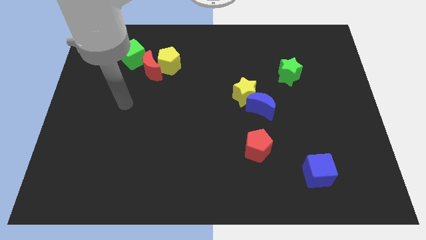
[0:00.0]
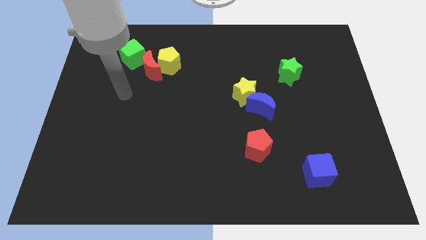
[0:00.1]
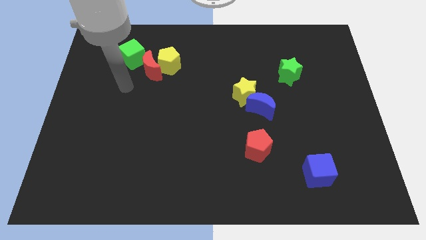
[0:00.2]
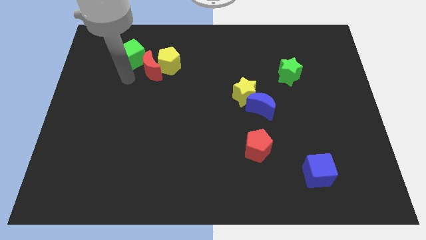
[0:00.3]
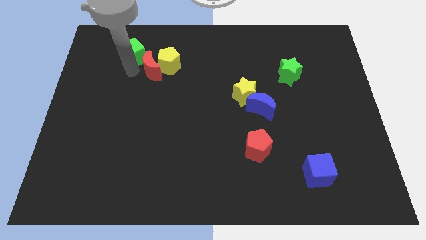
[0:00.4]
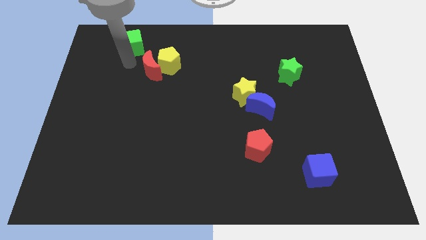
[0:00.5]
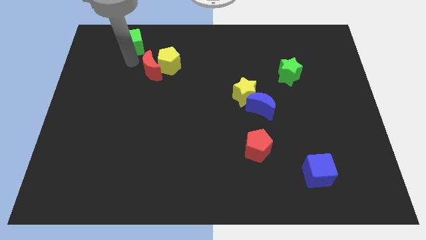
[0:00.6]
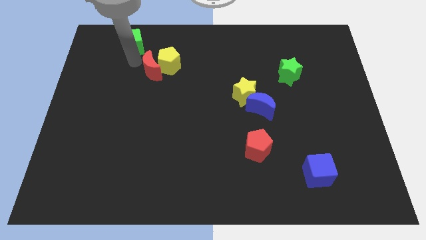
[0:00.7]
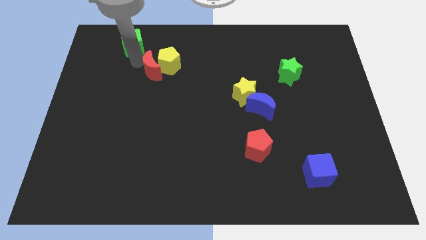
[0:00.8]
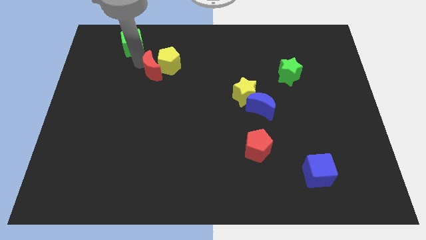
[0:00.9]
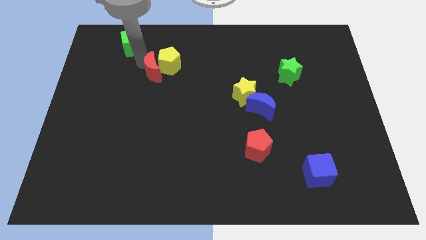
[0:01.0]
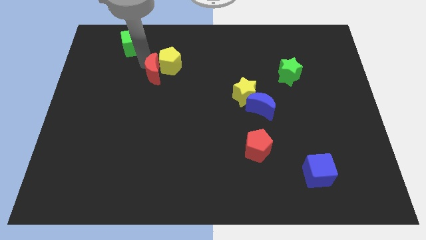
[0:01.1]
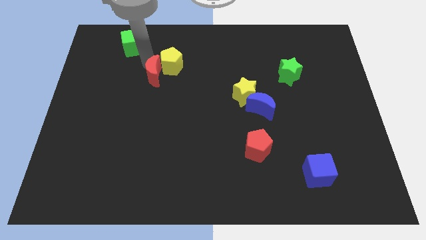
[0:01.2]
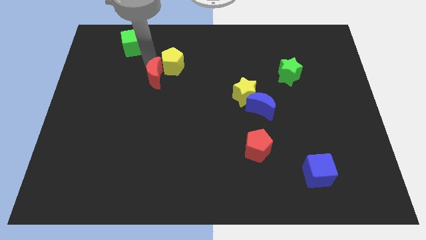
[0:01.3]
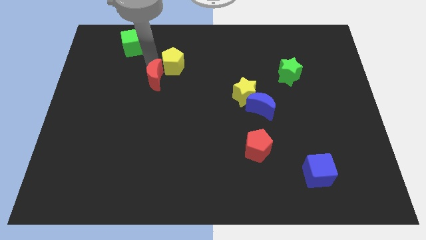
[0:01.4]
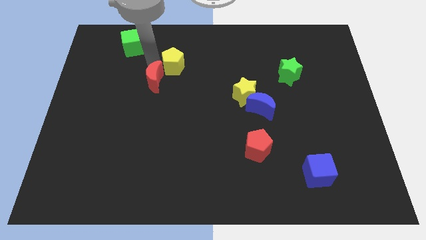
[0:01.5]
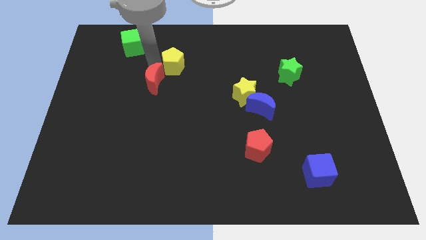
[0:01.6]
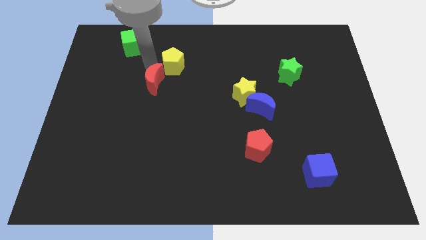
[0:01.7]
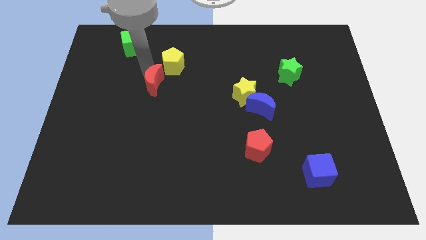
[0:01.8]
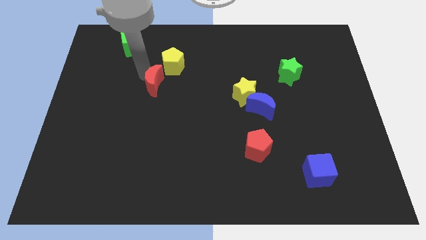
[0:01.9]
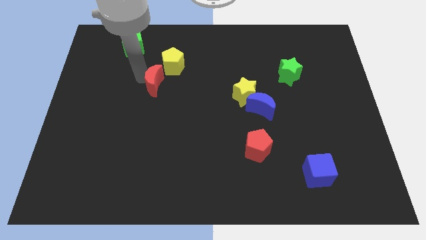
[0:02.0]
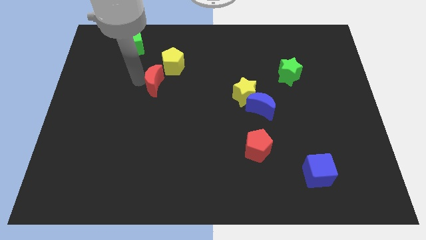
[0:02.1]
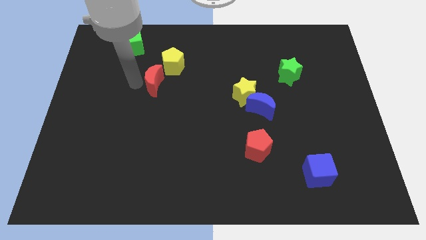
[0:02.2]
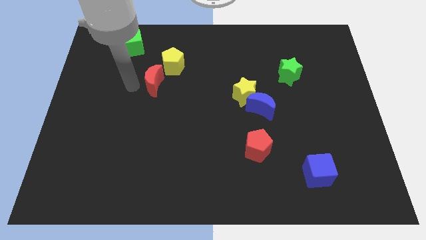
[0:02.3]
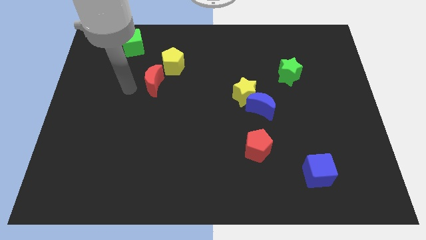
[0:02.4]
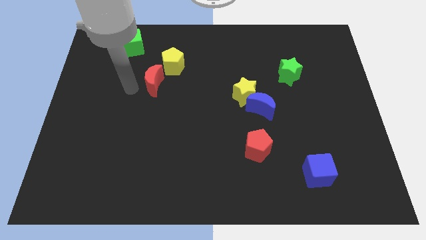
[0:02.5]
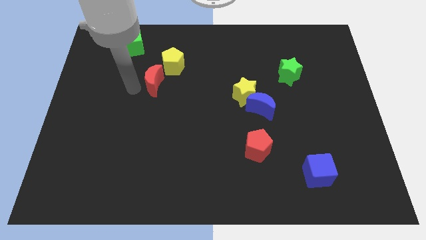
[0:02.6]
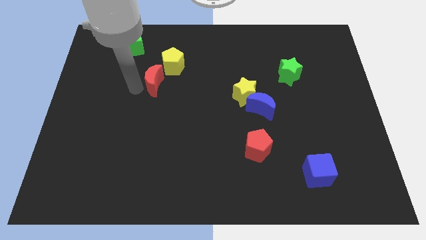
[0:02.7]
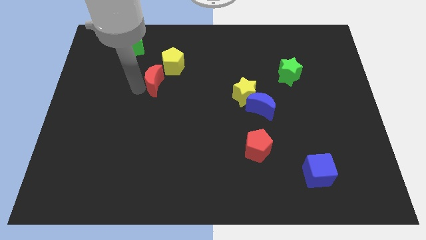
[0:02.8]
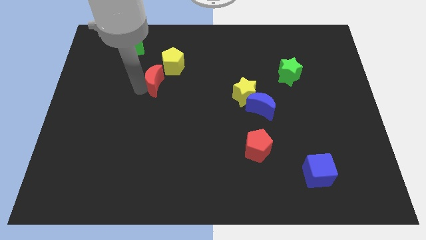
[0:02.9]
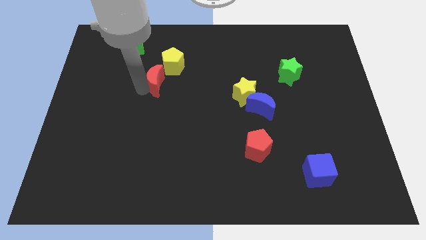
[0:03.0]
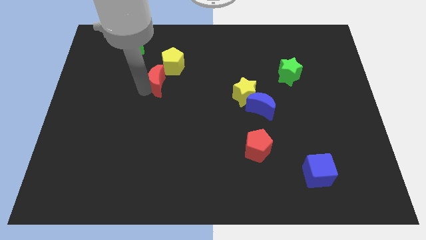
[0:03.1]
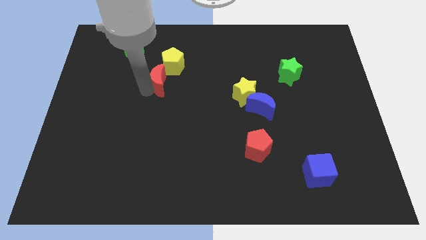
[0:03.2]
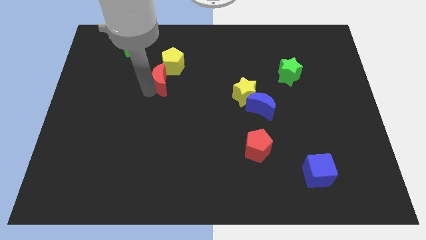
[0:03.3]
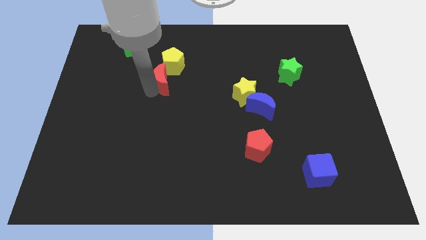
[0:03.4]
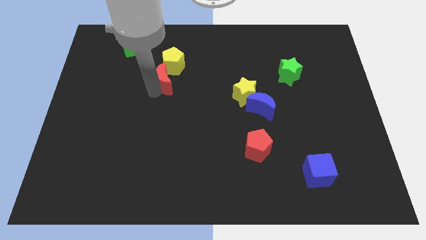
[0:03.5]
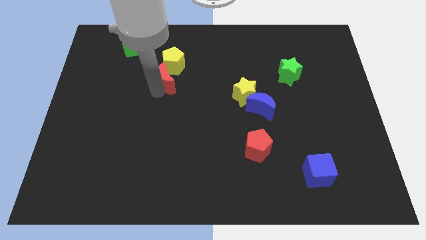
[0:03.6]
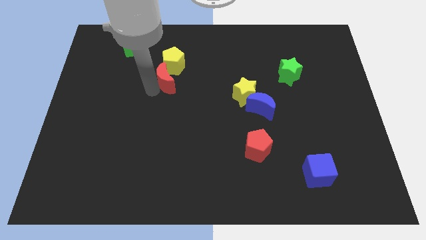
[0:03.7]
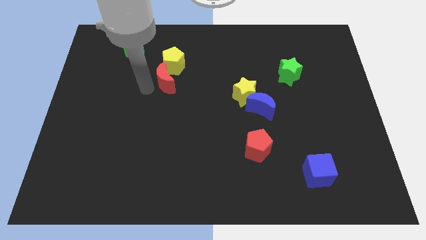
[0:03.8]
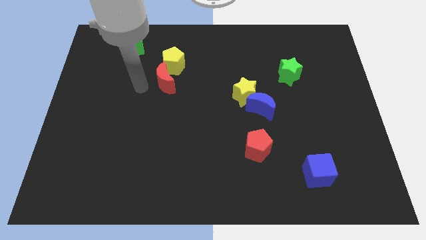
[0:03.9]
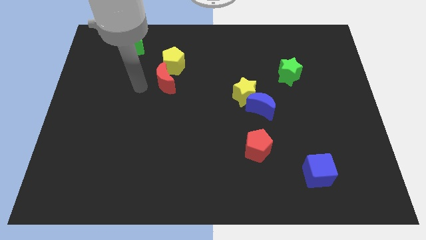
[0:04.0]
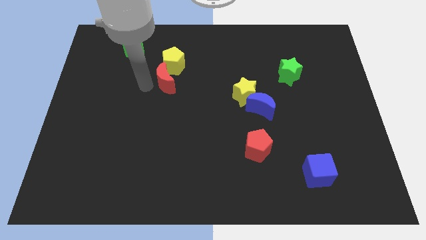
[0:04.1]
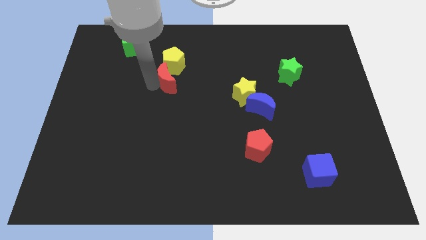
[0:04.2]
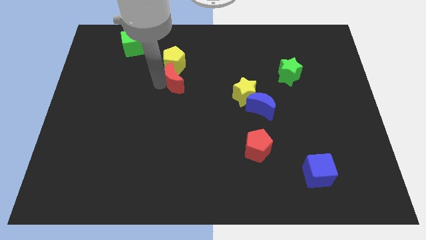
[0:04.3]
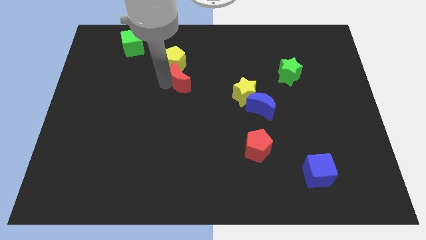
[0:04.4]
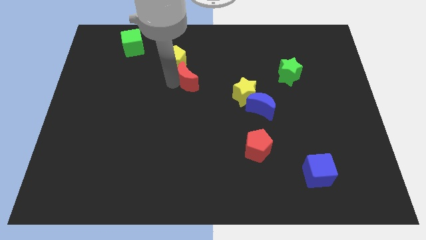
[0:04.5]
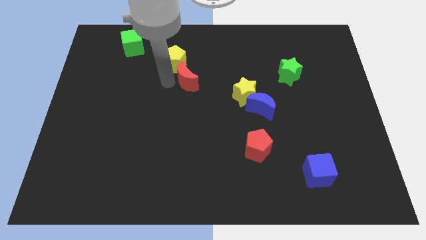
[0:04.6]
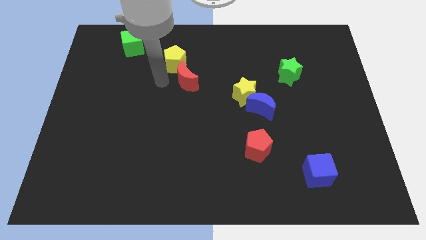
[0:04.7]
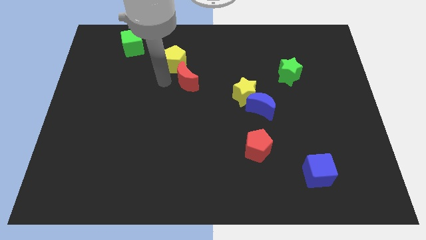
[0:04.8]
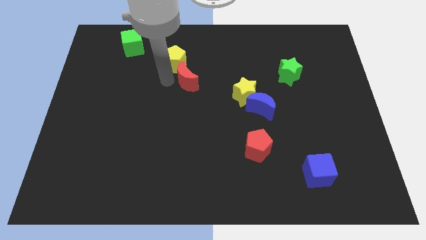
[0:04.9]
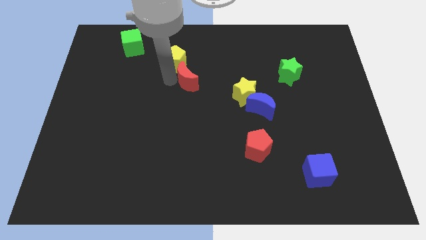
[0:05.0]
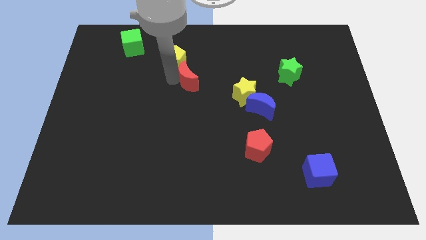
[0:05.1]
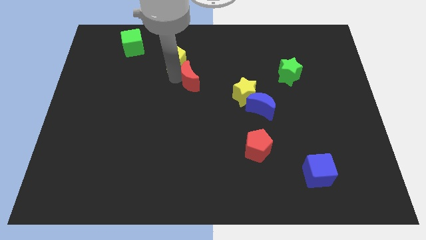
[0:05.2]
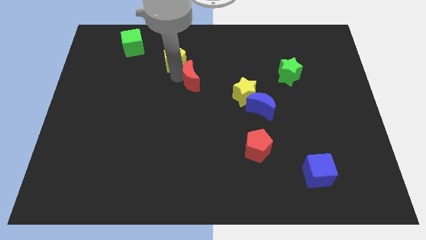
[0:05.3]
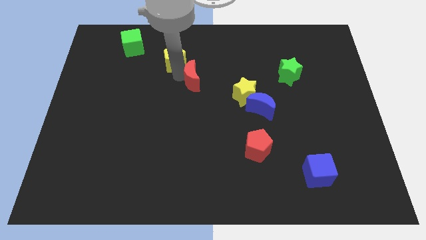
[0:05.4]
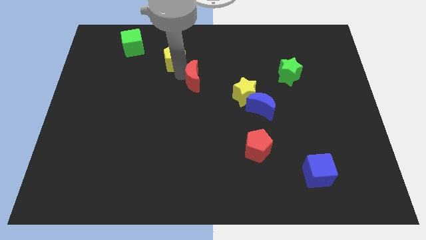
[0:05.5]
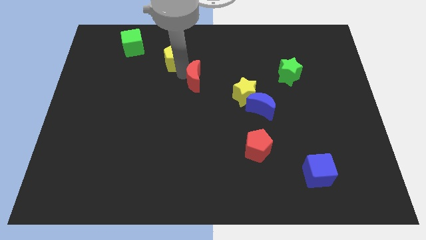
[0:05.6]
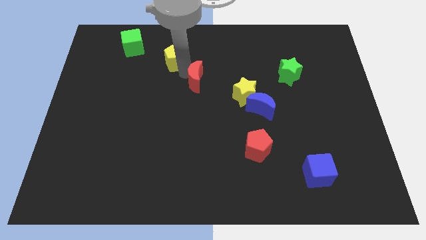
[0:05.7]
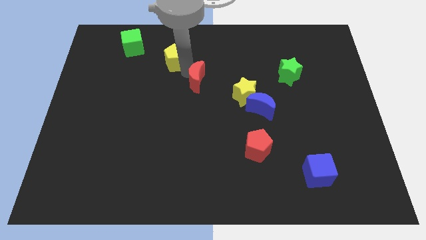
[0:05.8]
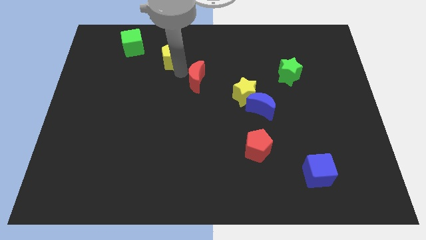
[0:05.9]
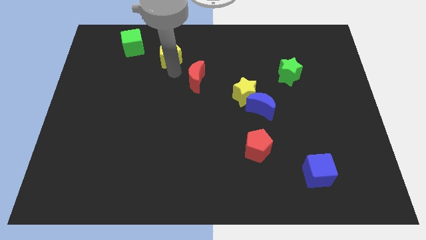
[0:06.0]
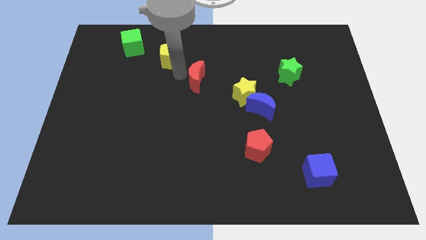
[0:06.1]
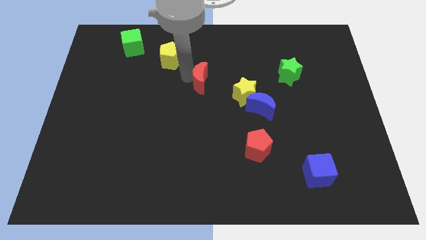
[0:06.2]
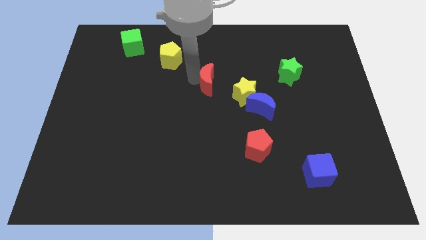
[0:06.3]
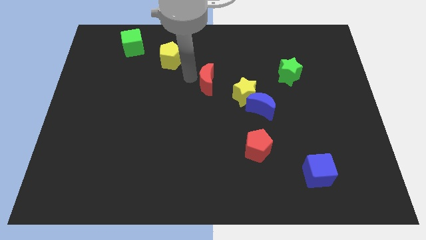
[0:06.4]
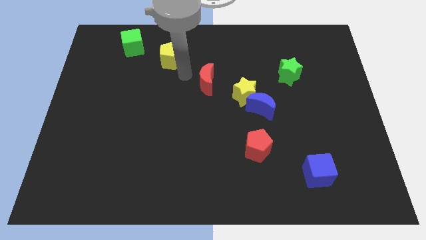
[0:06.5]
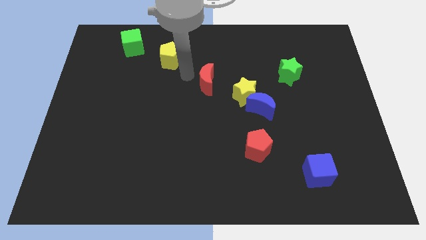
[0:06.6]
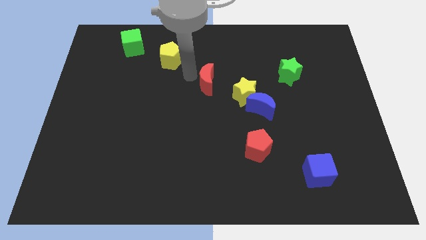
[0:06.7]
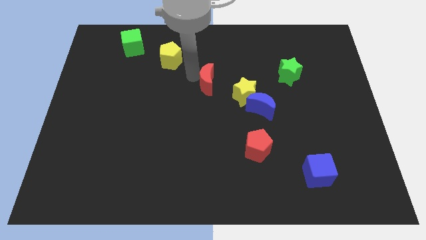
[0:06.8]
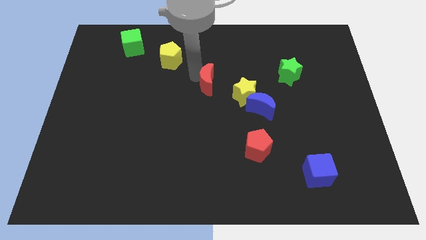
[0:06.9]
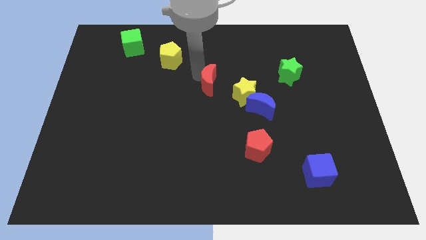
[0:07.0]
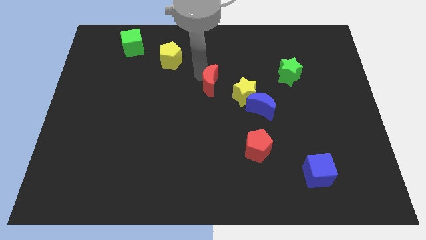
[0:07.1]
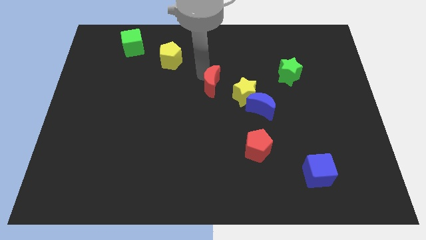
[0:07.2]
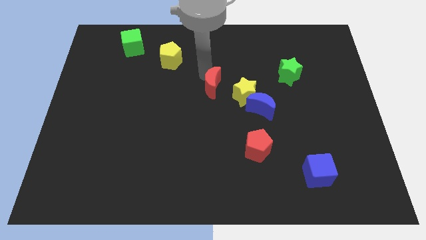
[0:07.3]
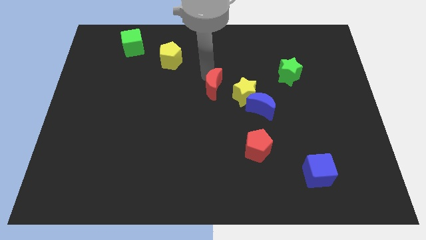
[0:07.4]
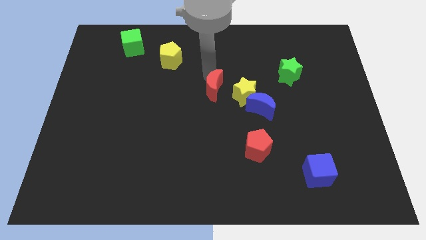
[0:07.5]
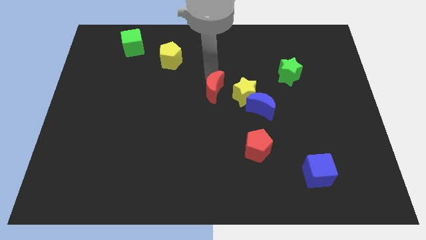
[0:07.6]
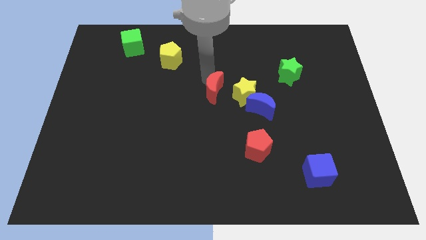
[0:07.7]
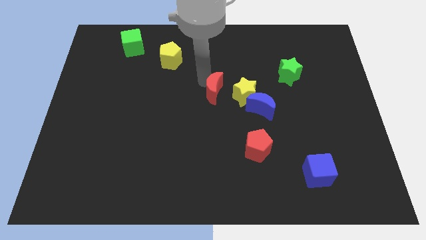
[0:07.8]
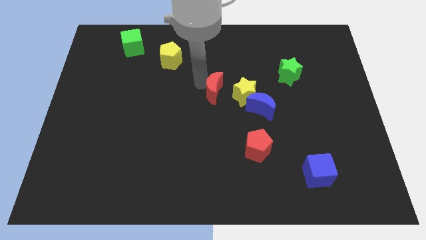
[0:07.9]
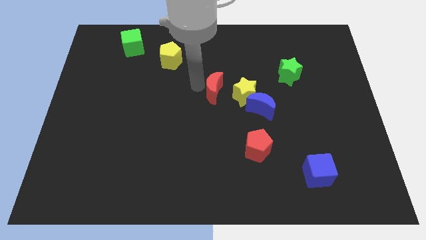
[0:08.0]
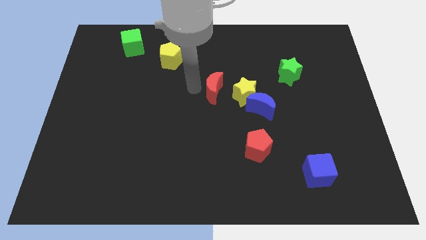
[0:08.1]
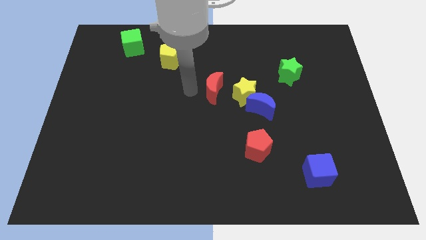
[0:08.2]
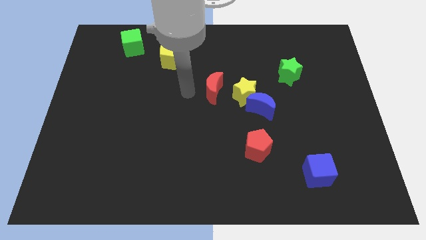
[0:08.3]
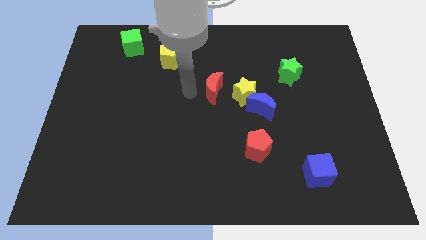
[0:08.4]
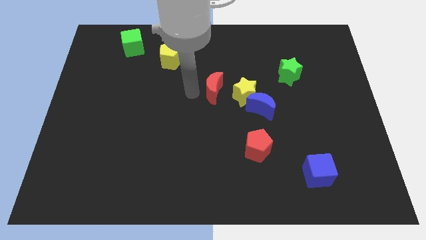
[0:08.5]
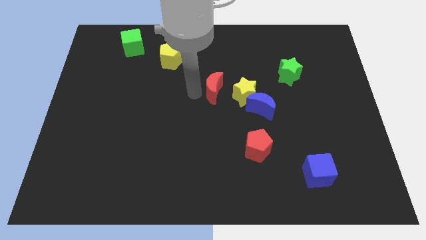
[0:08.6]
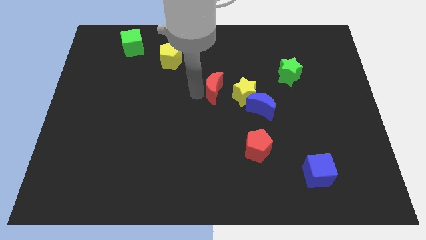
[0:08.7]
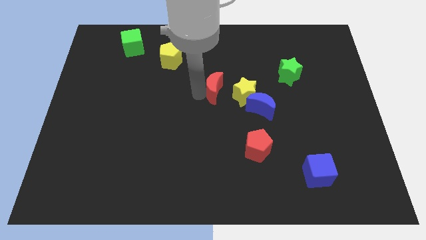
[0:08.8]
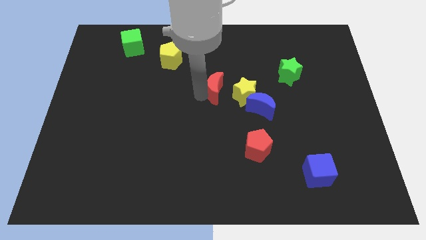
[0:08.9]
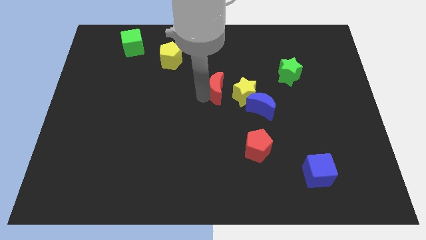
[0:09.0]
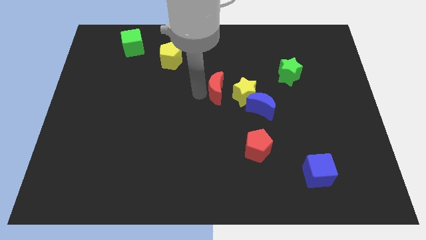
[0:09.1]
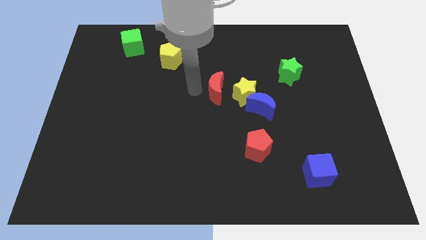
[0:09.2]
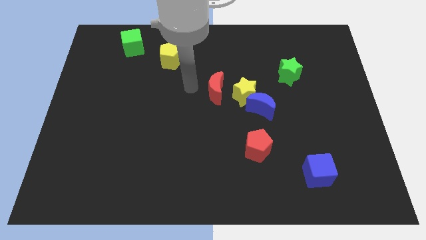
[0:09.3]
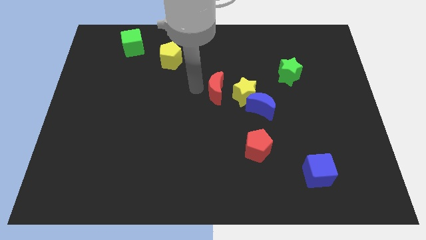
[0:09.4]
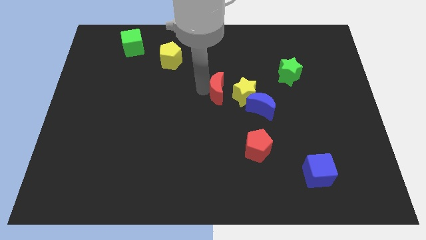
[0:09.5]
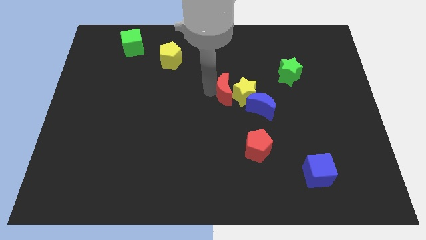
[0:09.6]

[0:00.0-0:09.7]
put the red moon next to the yellow star
